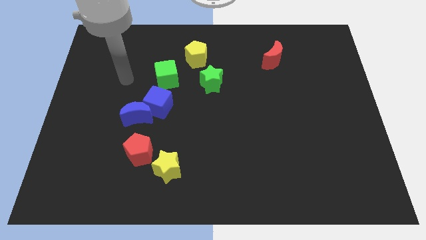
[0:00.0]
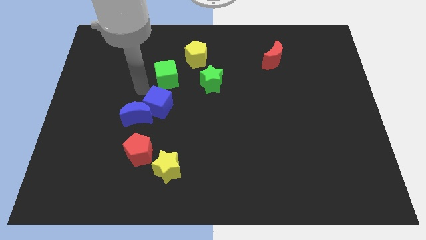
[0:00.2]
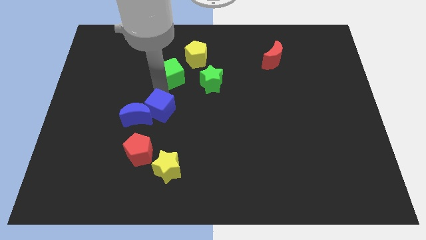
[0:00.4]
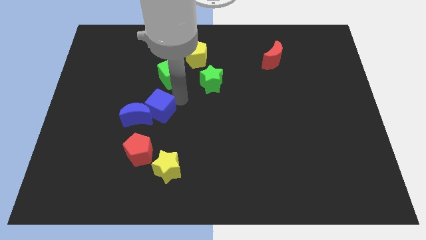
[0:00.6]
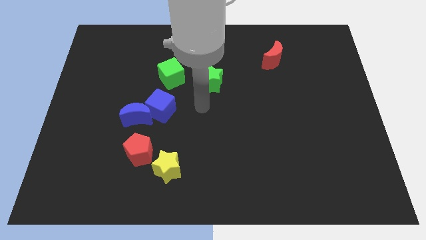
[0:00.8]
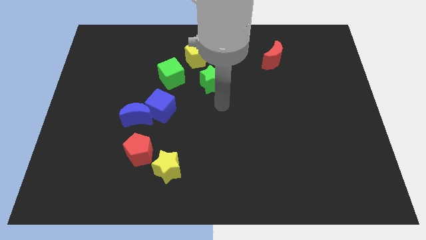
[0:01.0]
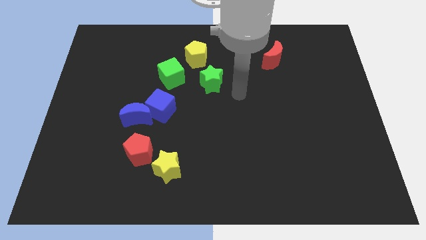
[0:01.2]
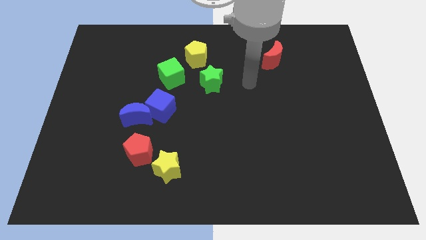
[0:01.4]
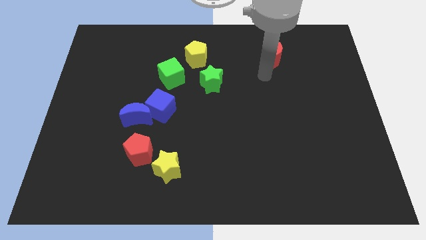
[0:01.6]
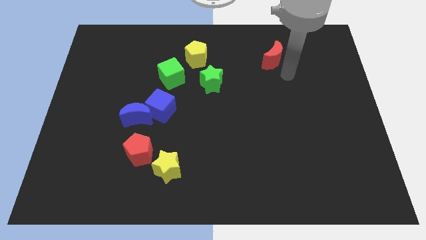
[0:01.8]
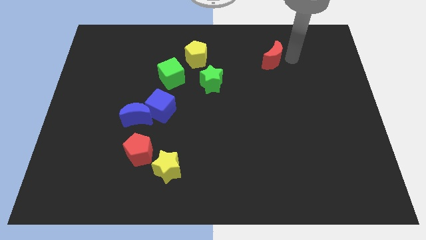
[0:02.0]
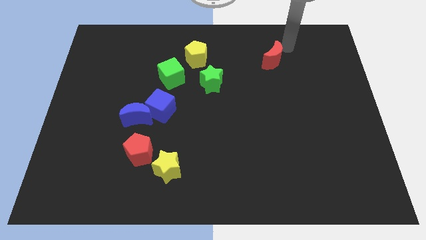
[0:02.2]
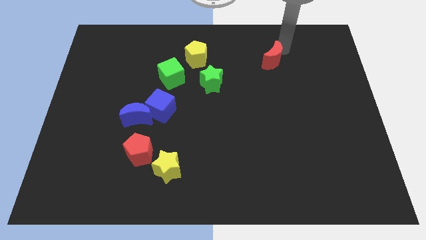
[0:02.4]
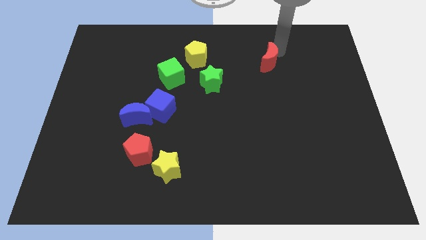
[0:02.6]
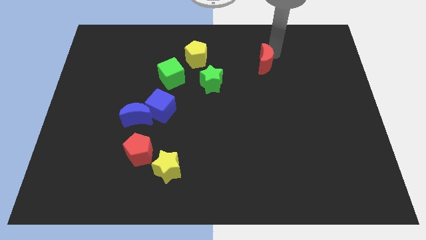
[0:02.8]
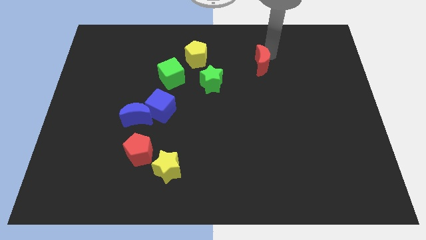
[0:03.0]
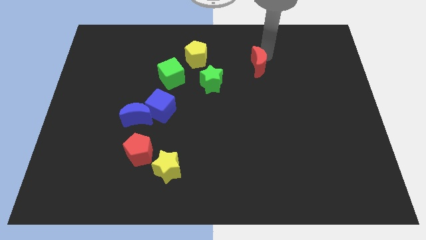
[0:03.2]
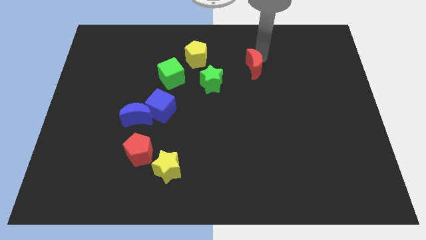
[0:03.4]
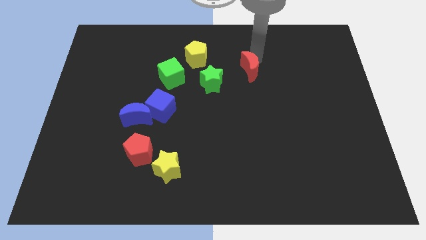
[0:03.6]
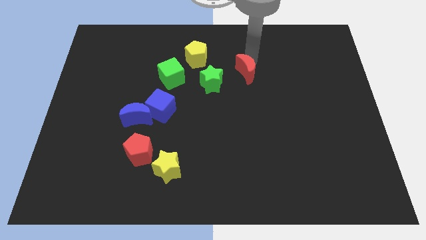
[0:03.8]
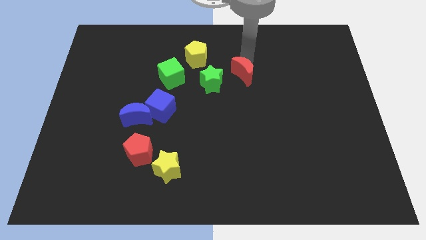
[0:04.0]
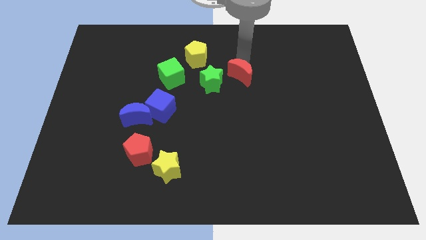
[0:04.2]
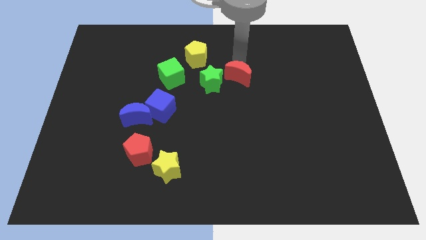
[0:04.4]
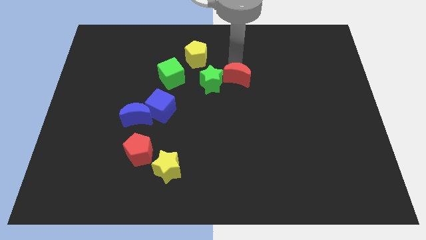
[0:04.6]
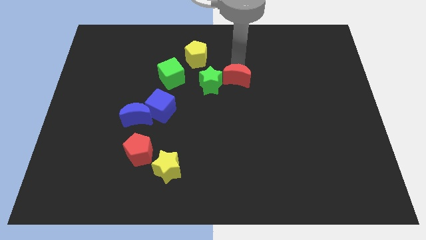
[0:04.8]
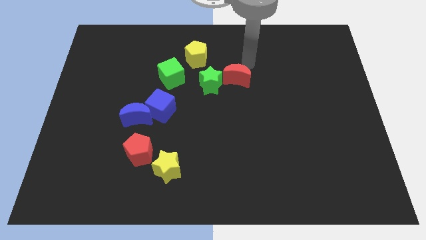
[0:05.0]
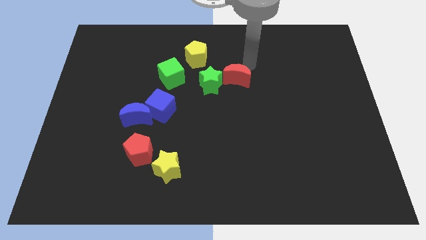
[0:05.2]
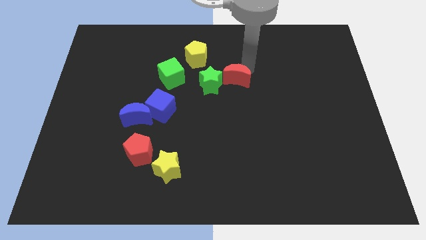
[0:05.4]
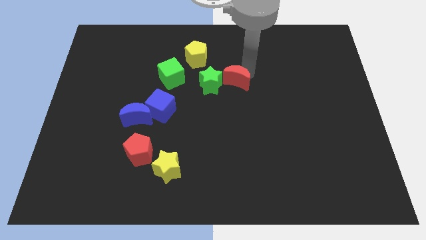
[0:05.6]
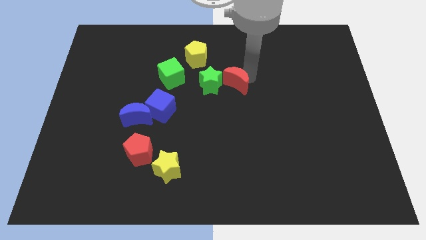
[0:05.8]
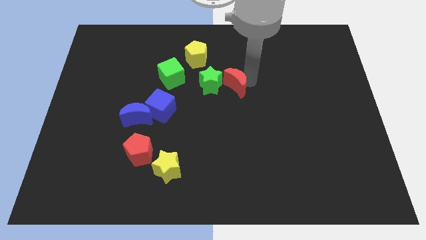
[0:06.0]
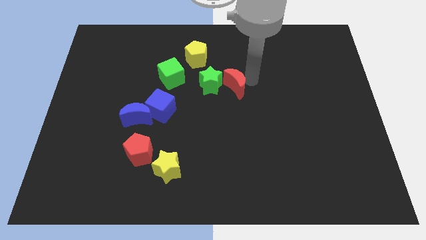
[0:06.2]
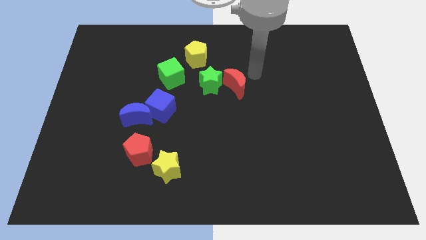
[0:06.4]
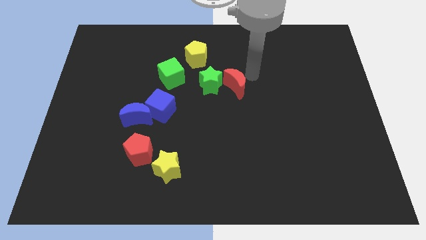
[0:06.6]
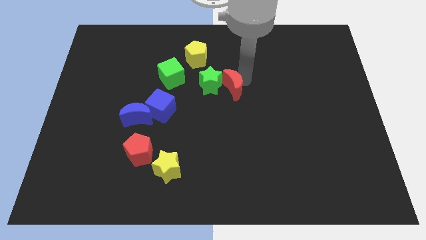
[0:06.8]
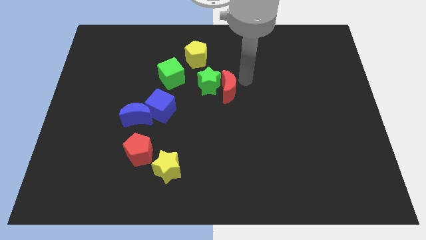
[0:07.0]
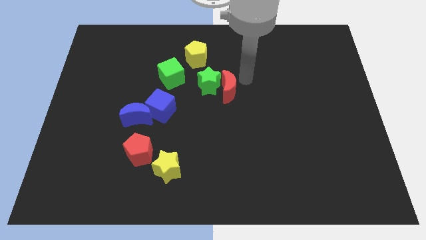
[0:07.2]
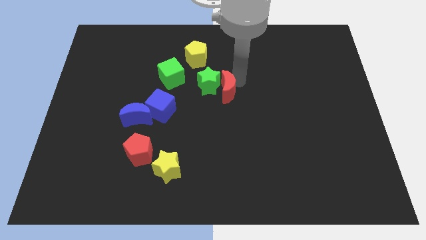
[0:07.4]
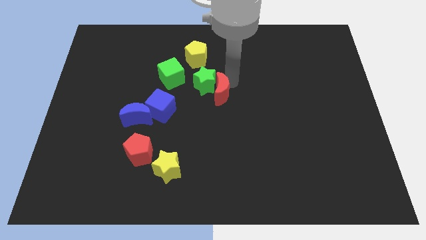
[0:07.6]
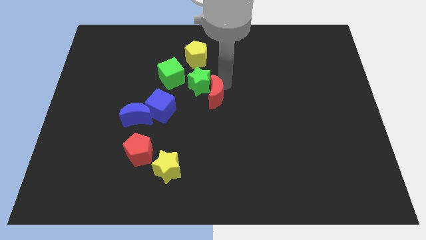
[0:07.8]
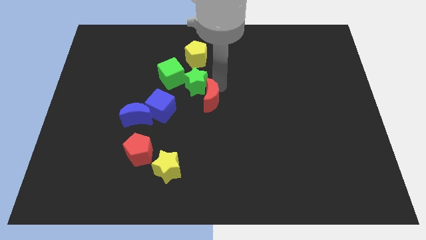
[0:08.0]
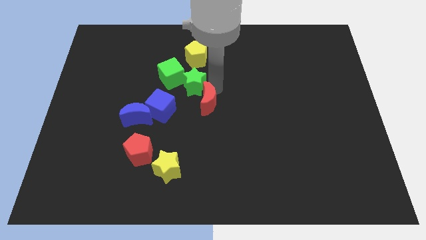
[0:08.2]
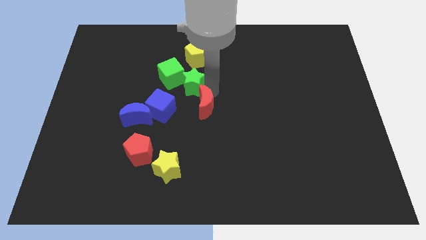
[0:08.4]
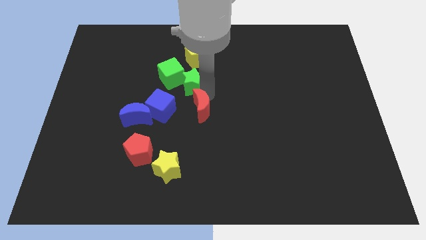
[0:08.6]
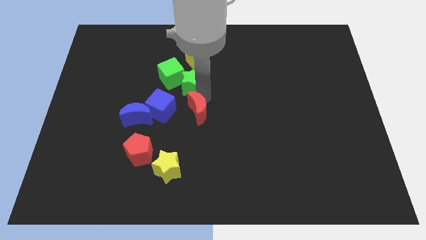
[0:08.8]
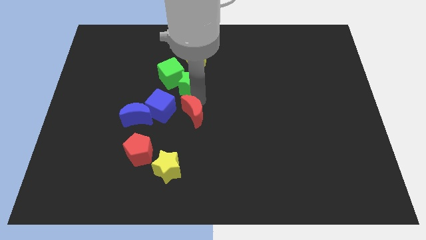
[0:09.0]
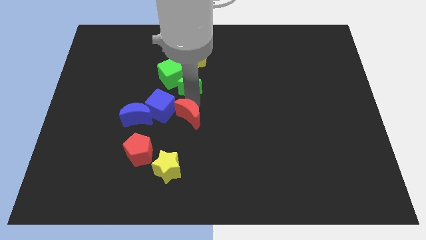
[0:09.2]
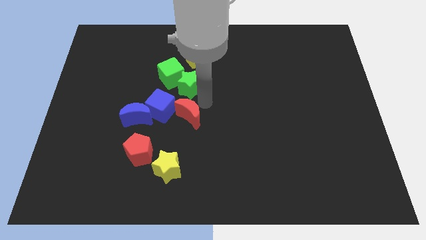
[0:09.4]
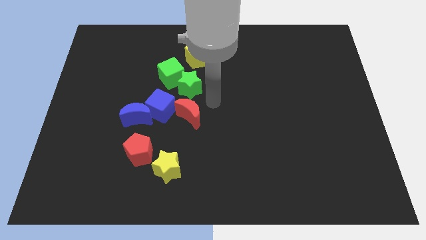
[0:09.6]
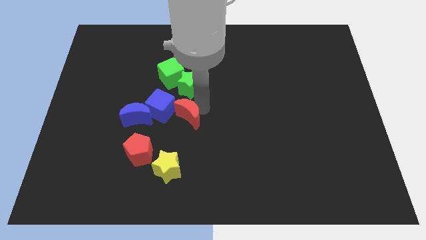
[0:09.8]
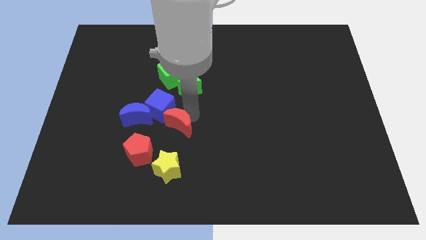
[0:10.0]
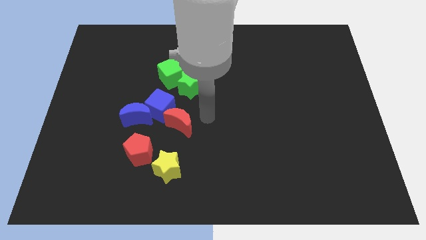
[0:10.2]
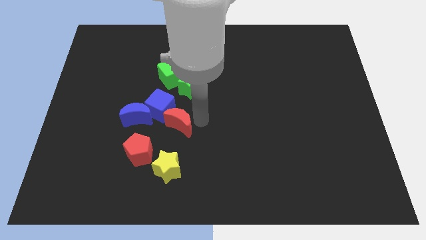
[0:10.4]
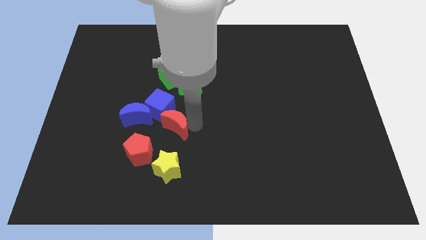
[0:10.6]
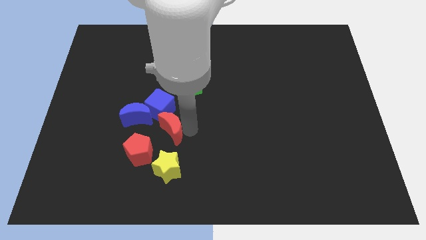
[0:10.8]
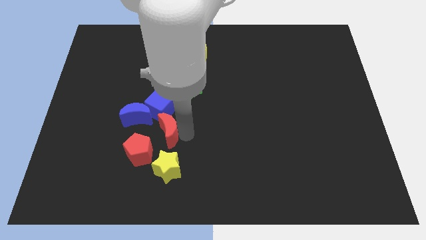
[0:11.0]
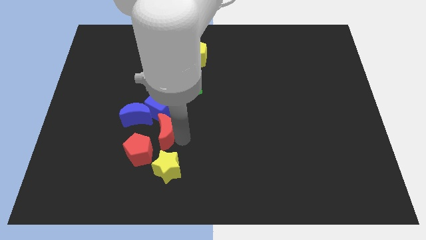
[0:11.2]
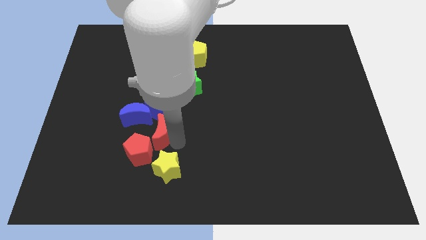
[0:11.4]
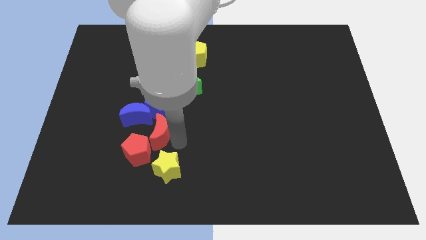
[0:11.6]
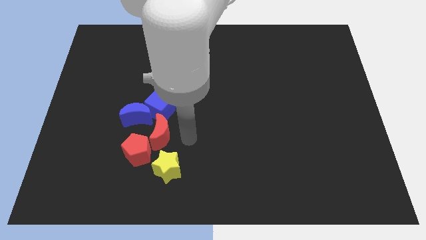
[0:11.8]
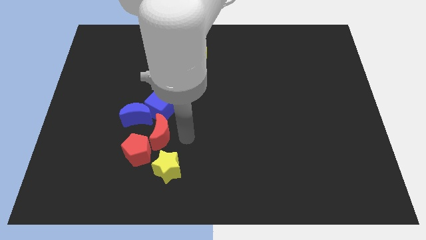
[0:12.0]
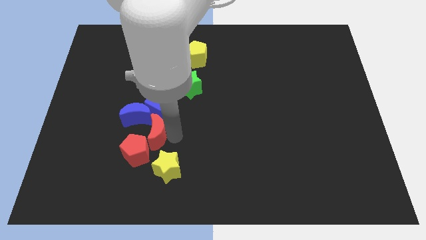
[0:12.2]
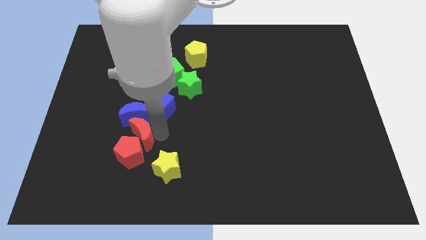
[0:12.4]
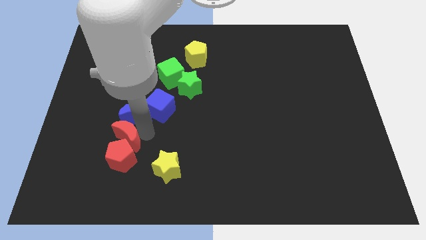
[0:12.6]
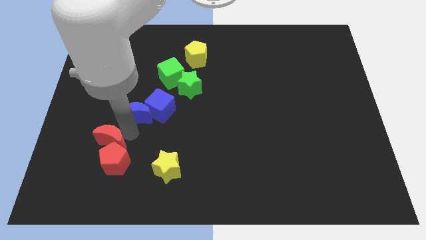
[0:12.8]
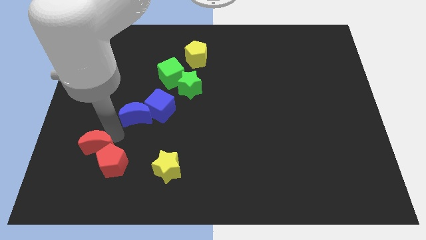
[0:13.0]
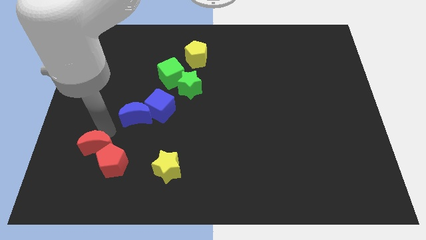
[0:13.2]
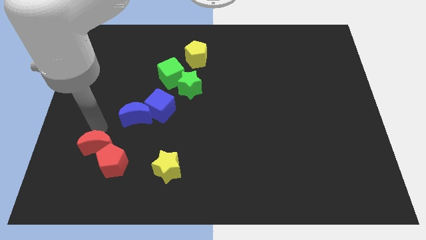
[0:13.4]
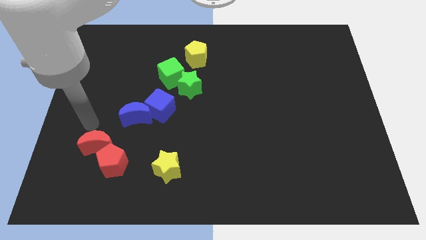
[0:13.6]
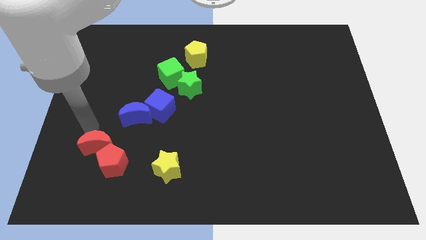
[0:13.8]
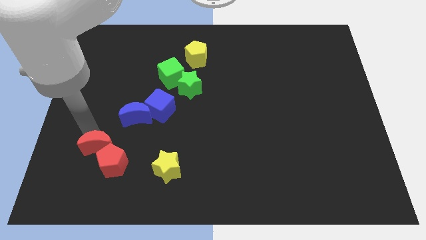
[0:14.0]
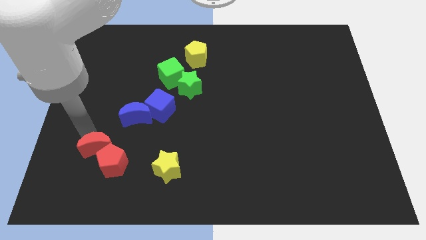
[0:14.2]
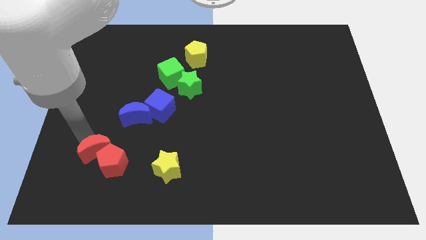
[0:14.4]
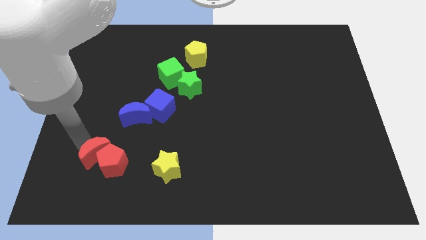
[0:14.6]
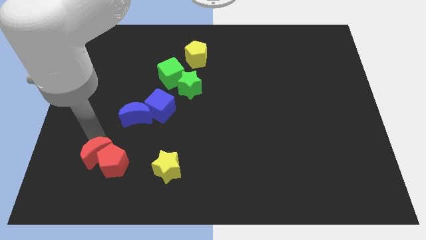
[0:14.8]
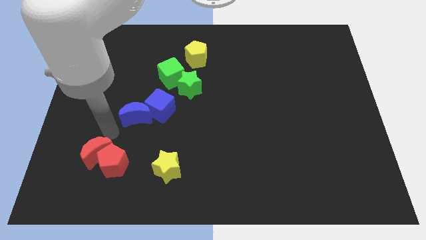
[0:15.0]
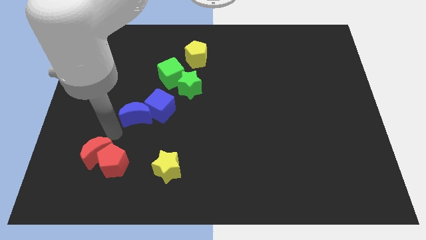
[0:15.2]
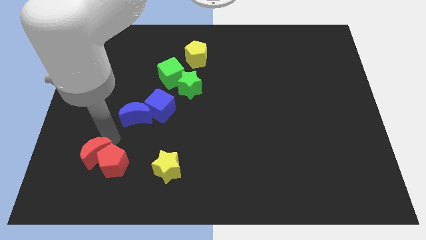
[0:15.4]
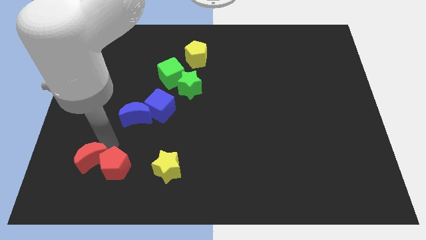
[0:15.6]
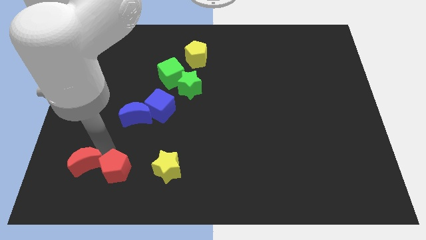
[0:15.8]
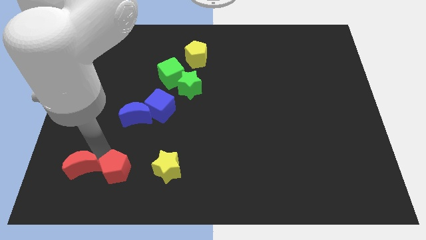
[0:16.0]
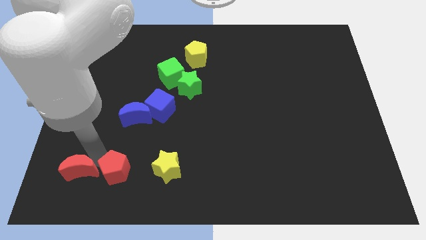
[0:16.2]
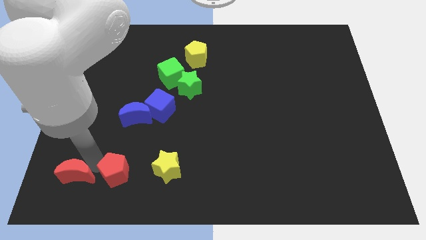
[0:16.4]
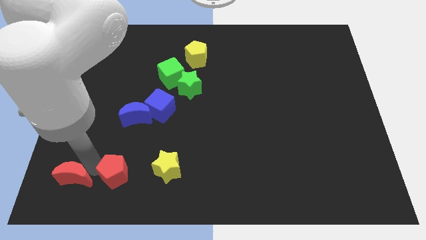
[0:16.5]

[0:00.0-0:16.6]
put the red moon to the lower left corner
